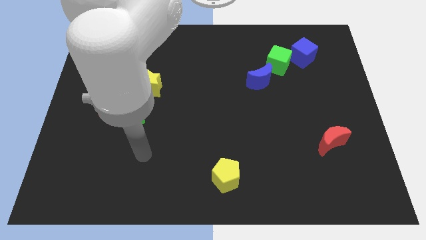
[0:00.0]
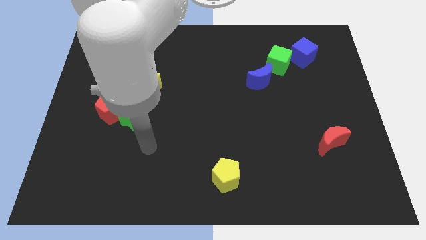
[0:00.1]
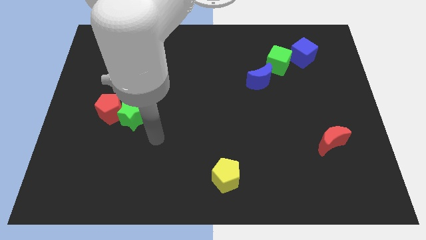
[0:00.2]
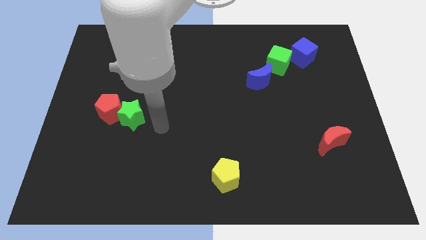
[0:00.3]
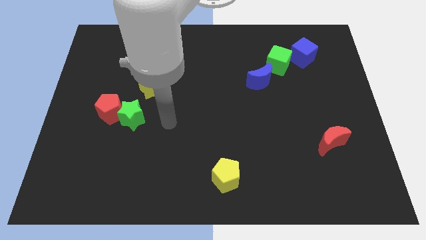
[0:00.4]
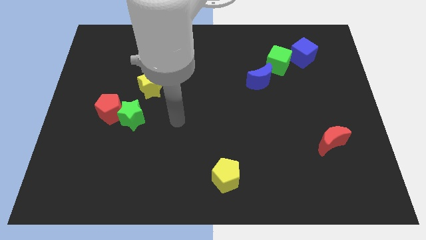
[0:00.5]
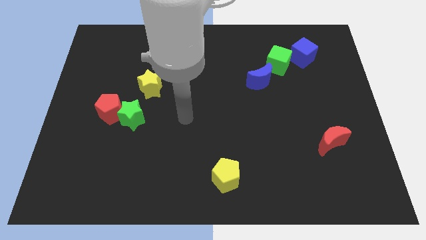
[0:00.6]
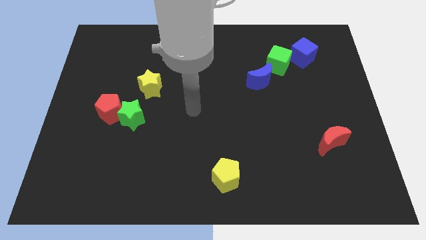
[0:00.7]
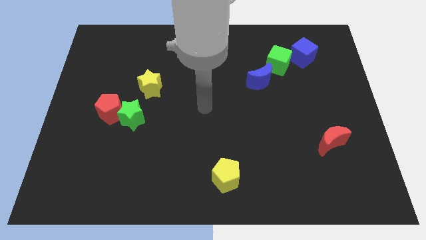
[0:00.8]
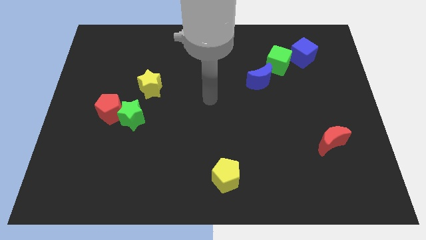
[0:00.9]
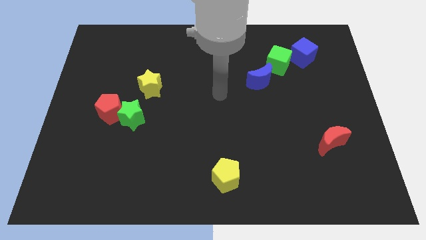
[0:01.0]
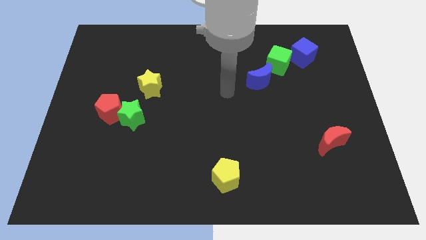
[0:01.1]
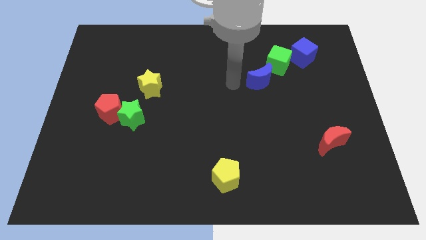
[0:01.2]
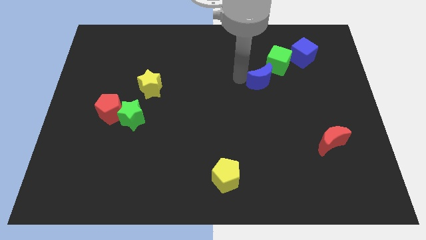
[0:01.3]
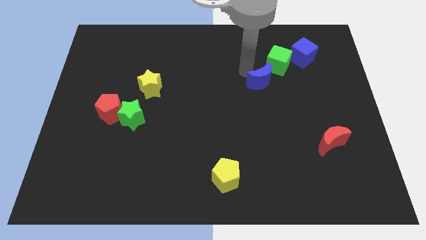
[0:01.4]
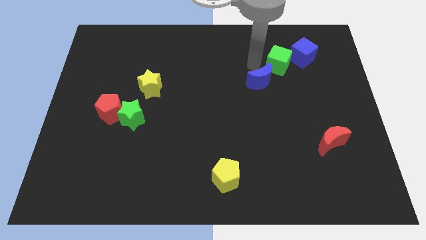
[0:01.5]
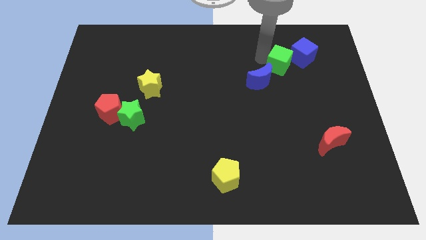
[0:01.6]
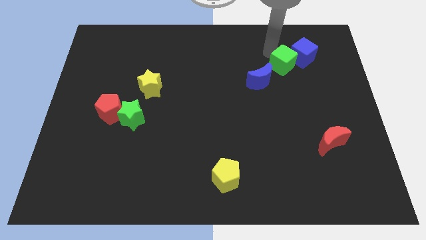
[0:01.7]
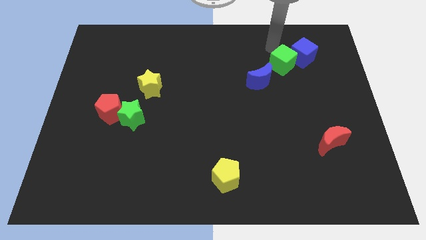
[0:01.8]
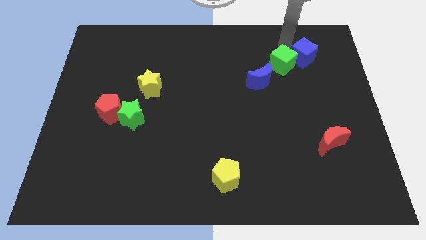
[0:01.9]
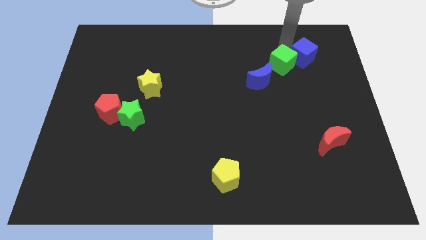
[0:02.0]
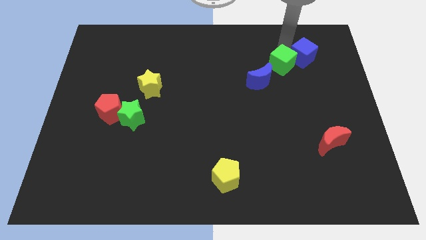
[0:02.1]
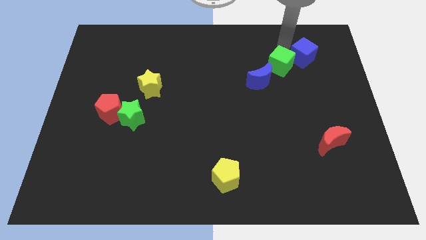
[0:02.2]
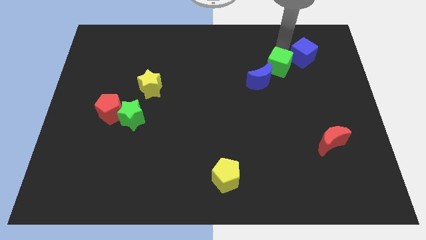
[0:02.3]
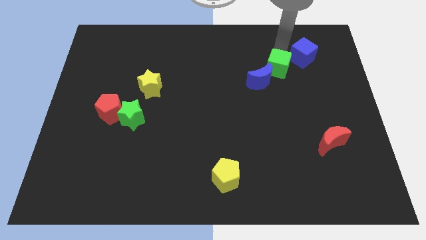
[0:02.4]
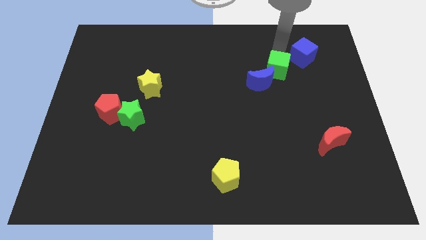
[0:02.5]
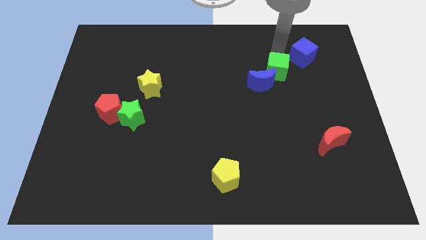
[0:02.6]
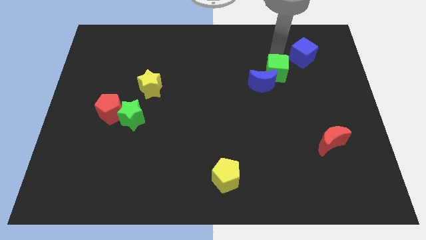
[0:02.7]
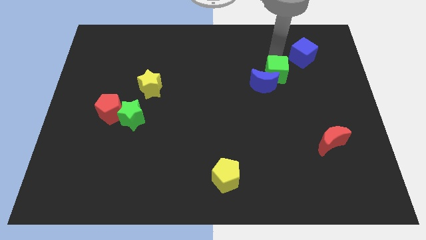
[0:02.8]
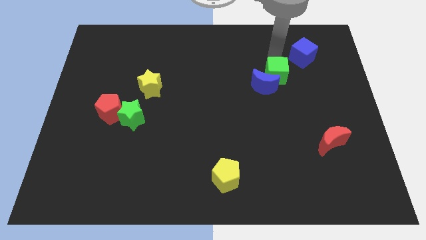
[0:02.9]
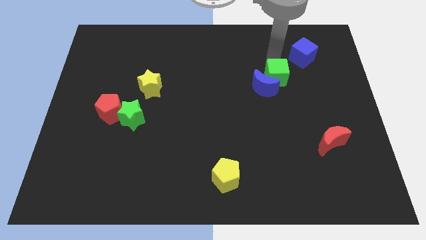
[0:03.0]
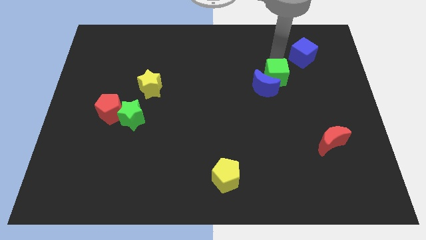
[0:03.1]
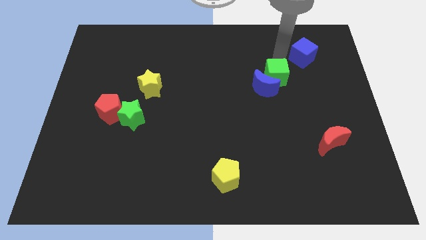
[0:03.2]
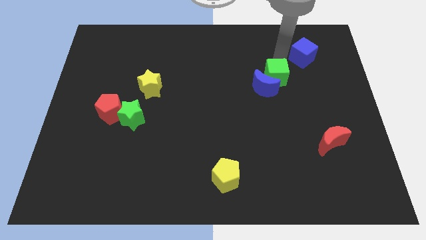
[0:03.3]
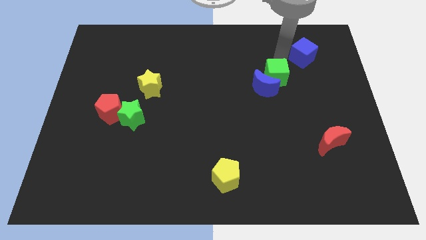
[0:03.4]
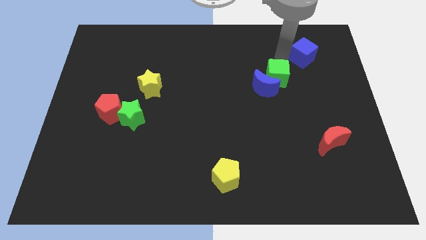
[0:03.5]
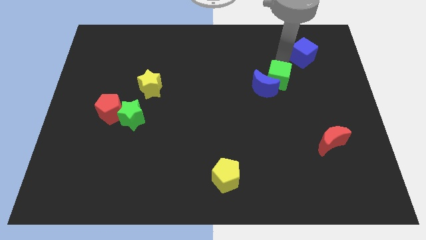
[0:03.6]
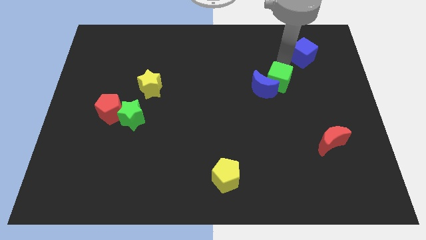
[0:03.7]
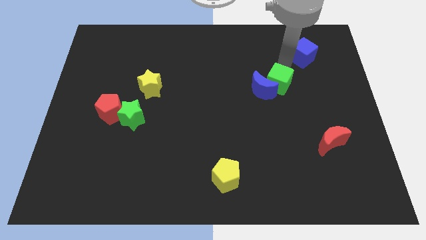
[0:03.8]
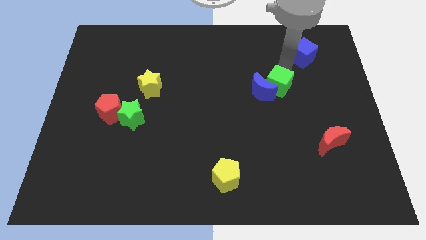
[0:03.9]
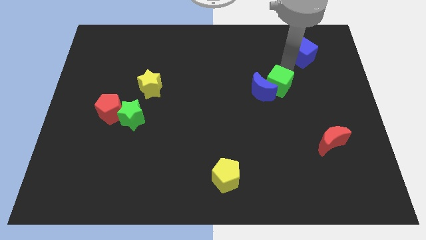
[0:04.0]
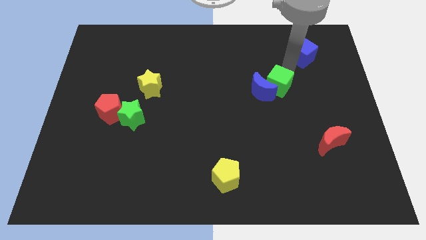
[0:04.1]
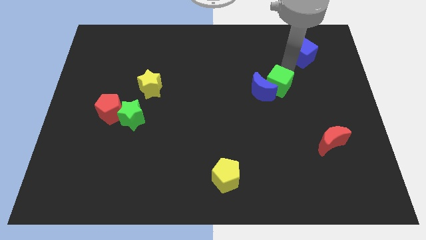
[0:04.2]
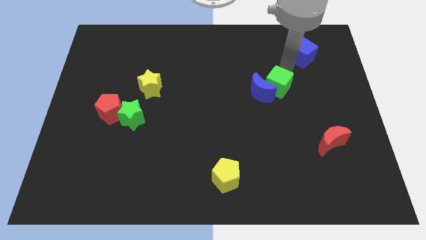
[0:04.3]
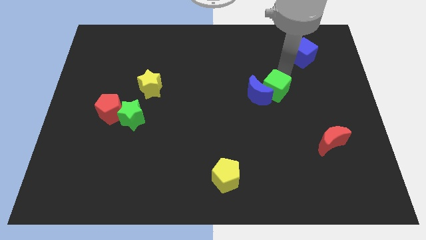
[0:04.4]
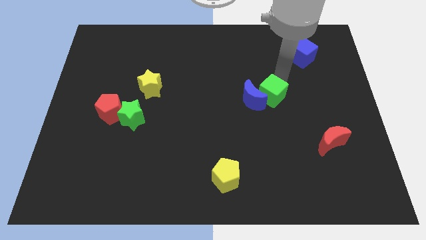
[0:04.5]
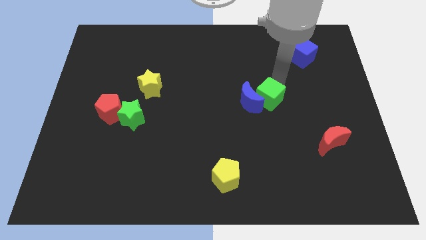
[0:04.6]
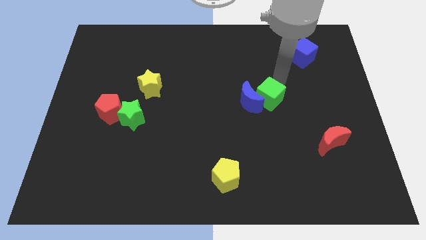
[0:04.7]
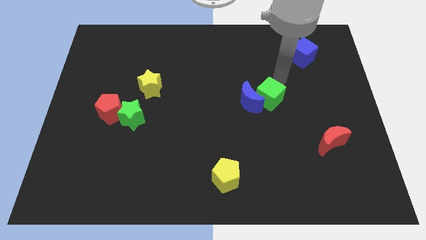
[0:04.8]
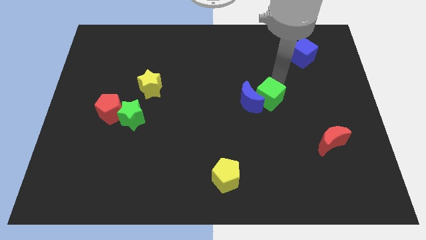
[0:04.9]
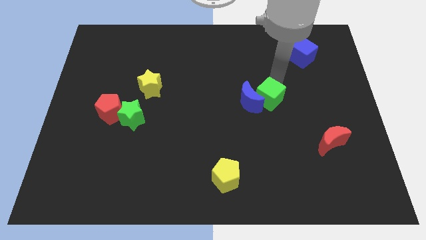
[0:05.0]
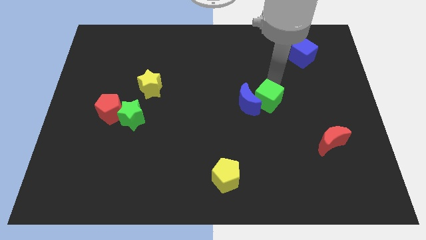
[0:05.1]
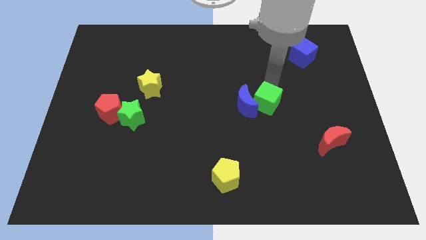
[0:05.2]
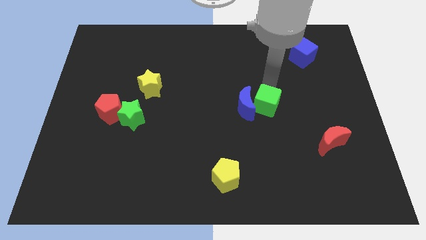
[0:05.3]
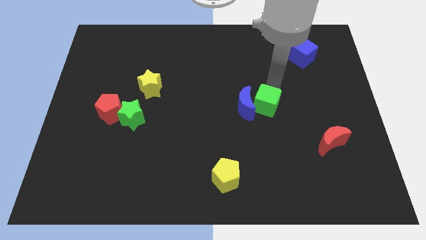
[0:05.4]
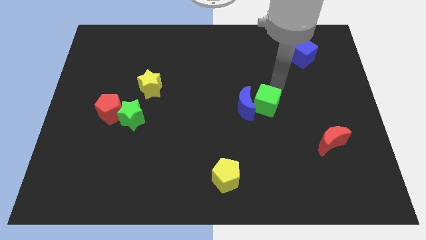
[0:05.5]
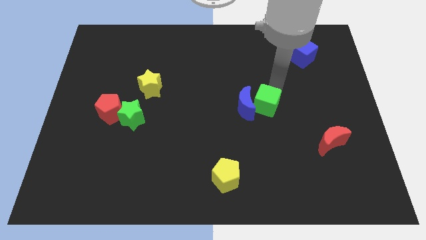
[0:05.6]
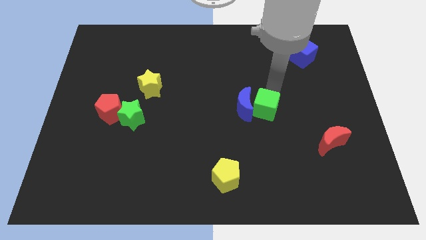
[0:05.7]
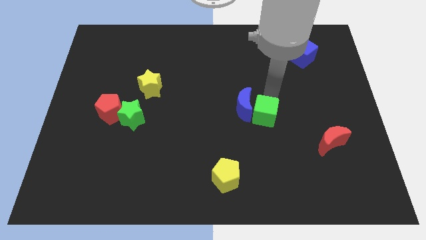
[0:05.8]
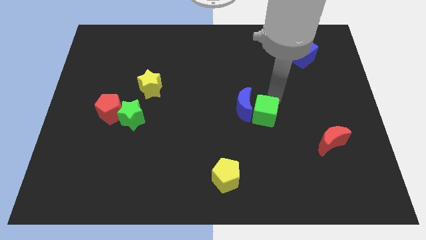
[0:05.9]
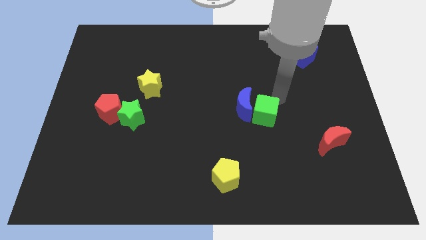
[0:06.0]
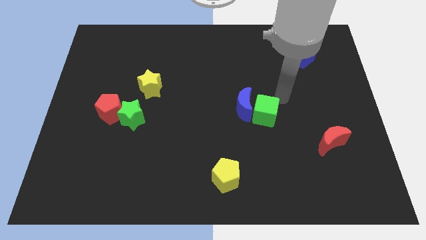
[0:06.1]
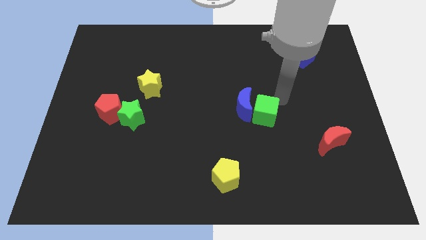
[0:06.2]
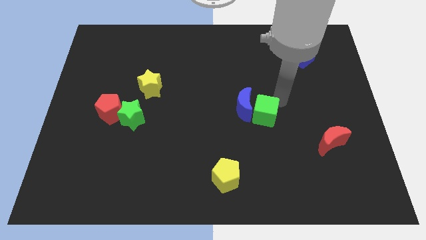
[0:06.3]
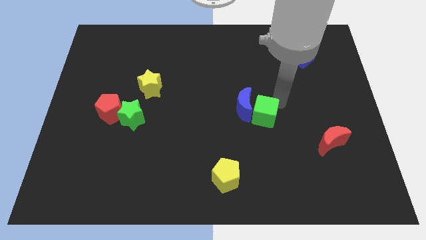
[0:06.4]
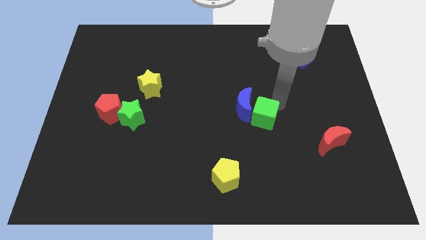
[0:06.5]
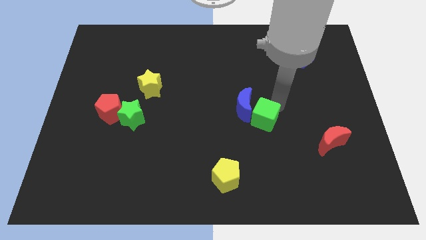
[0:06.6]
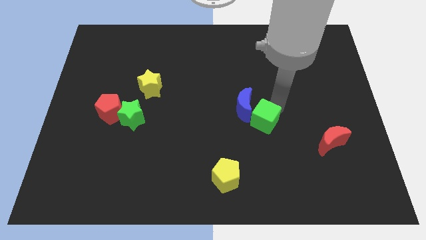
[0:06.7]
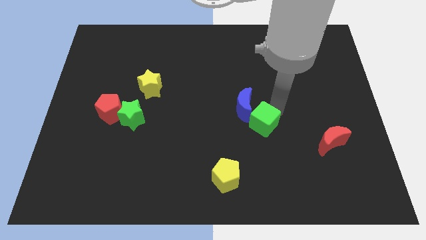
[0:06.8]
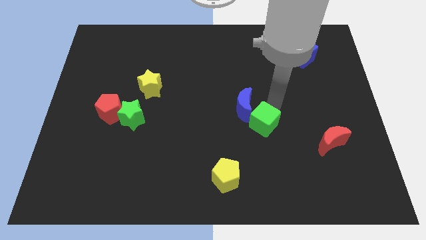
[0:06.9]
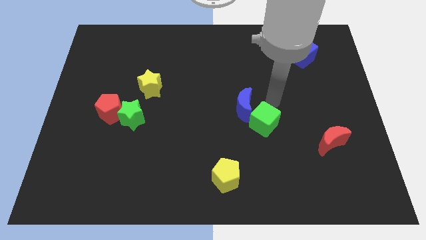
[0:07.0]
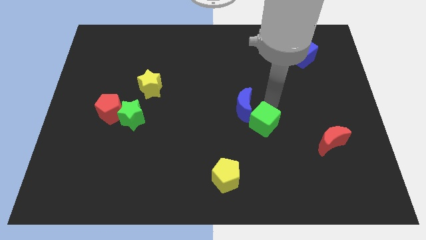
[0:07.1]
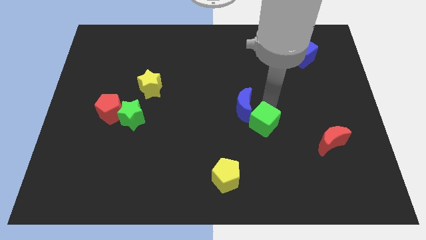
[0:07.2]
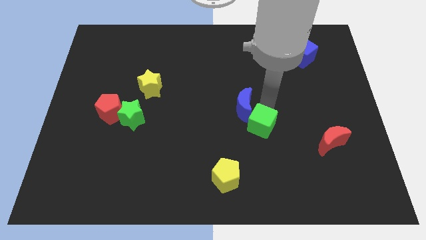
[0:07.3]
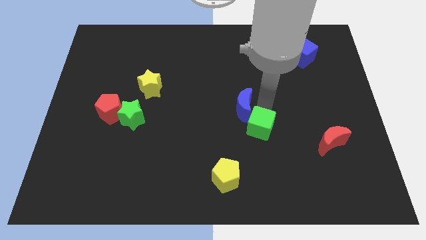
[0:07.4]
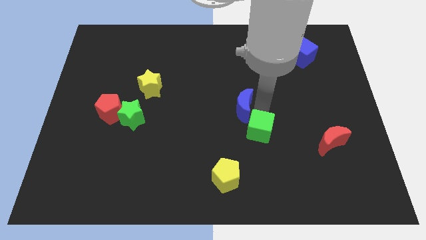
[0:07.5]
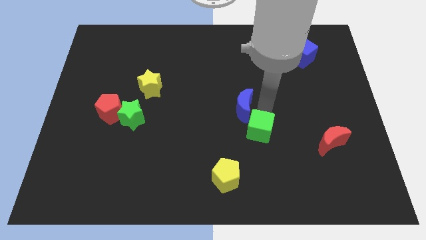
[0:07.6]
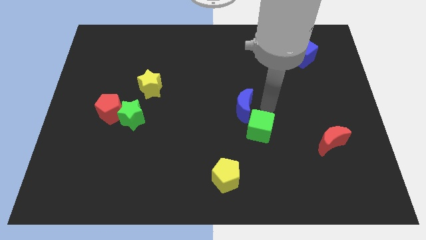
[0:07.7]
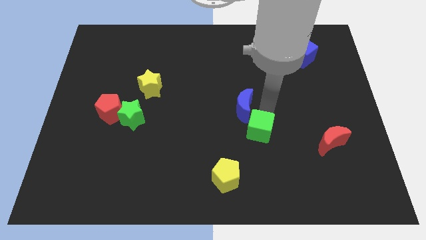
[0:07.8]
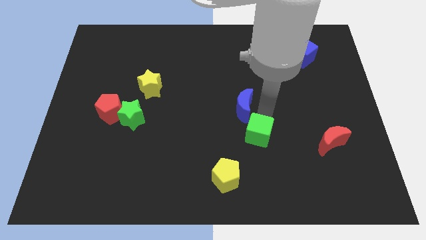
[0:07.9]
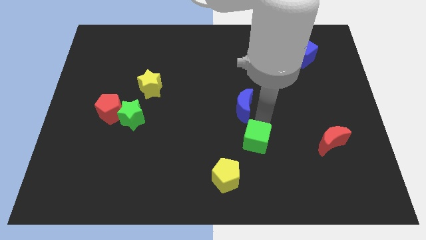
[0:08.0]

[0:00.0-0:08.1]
move the green cube diagonally up and to the right of the yellow pentagon
